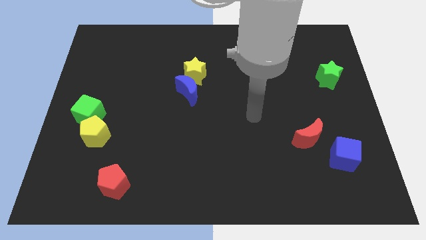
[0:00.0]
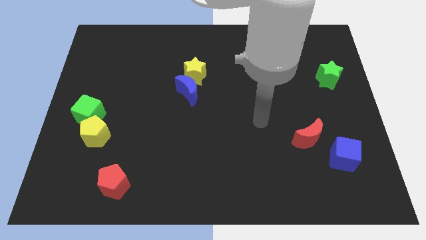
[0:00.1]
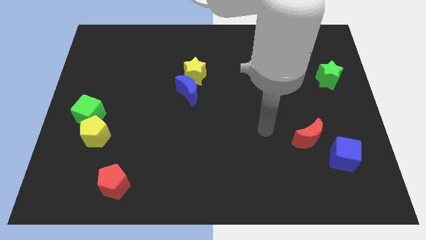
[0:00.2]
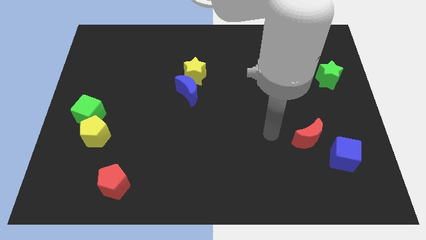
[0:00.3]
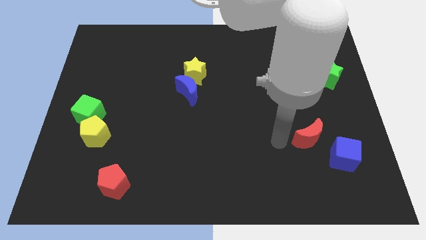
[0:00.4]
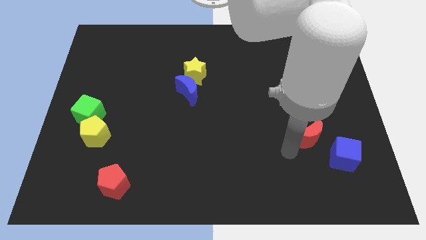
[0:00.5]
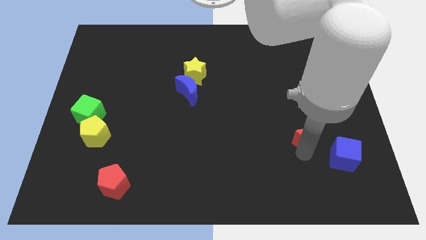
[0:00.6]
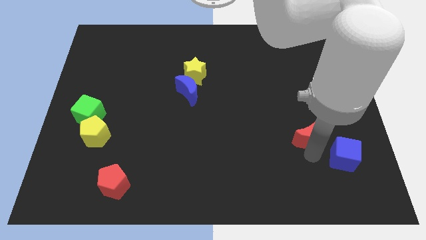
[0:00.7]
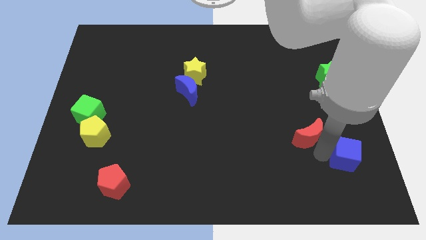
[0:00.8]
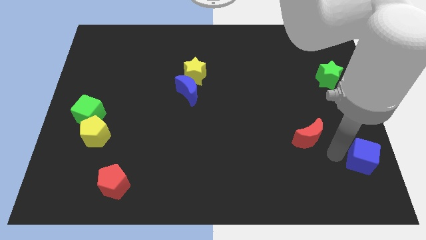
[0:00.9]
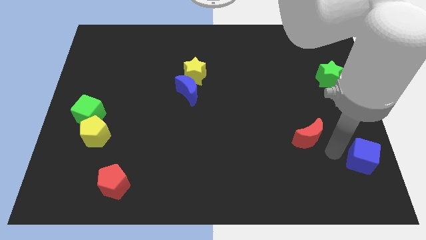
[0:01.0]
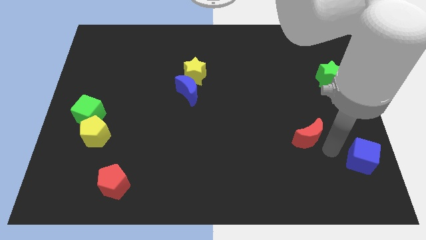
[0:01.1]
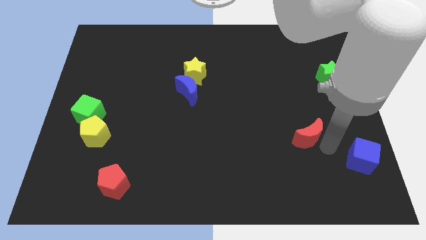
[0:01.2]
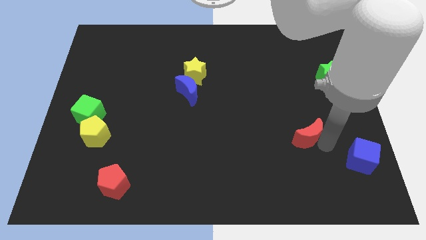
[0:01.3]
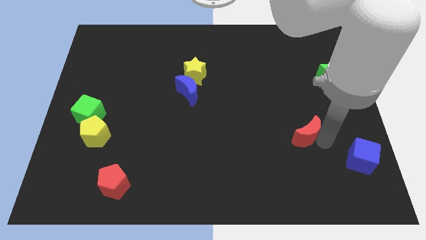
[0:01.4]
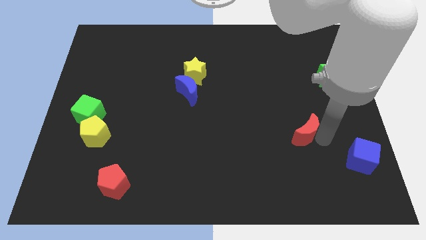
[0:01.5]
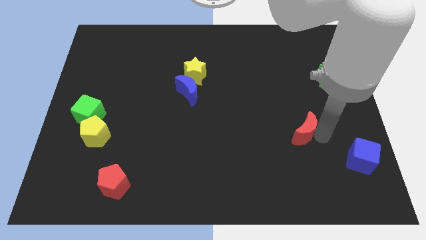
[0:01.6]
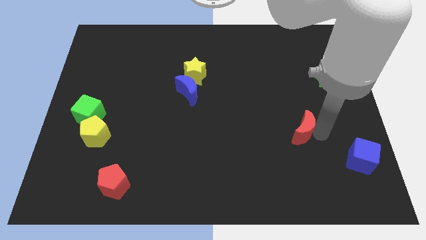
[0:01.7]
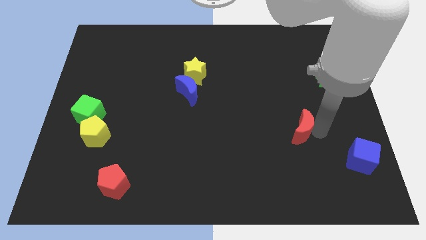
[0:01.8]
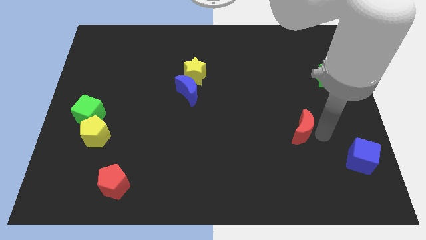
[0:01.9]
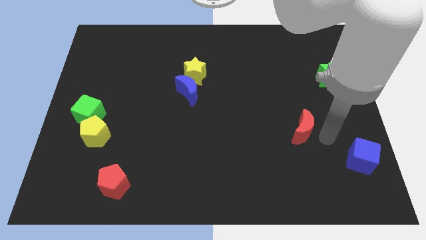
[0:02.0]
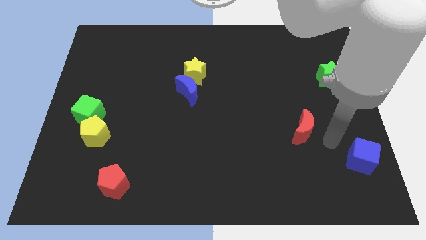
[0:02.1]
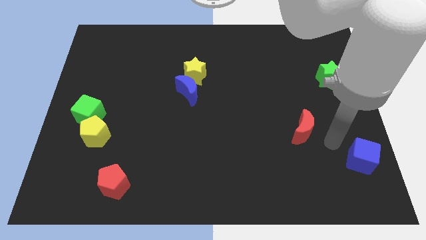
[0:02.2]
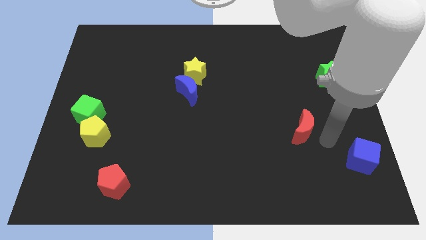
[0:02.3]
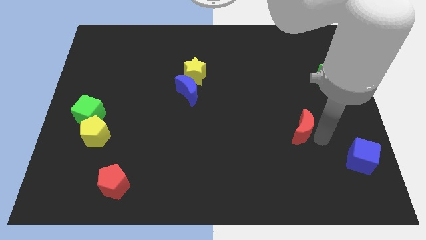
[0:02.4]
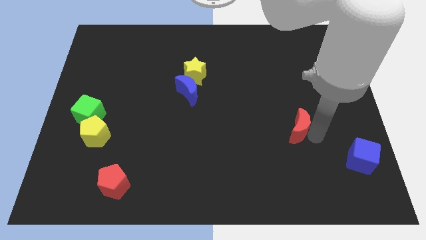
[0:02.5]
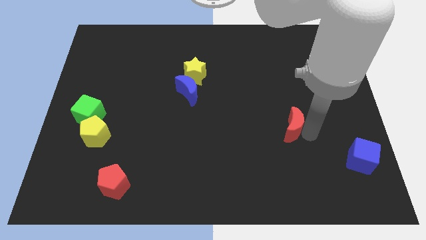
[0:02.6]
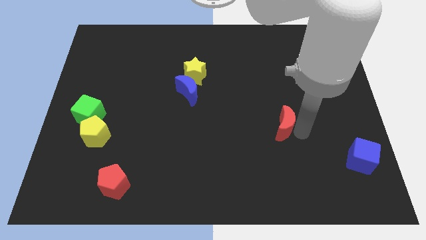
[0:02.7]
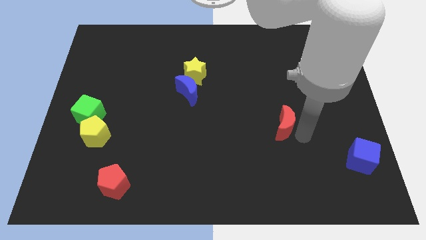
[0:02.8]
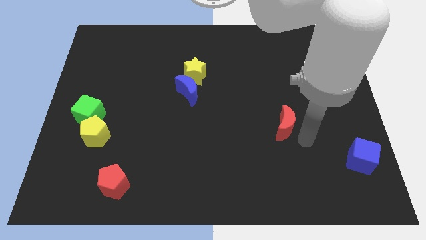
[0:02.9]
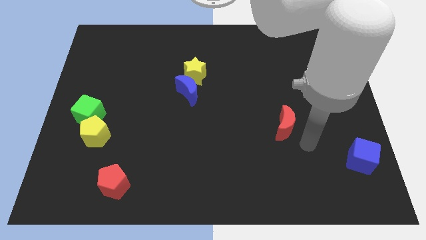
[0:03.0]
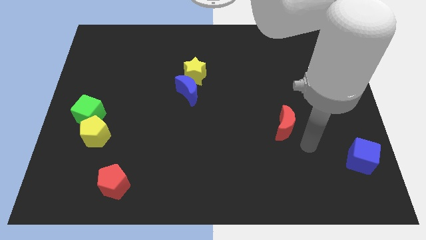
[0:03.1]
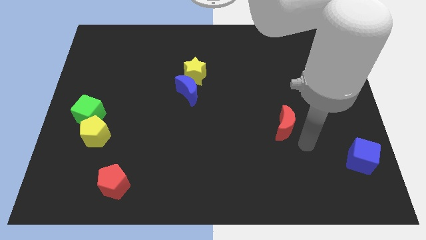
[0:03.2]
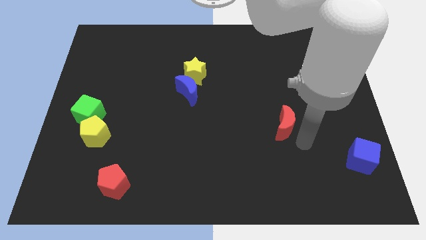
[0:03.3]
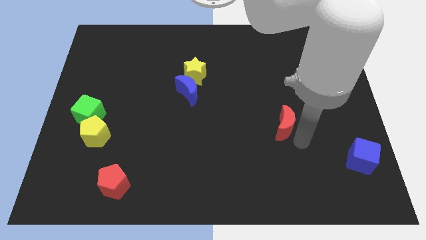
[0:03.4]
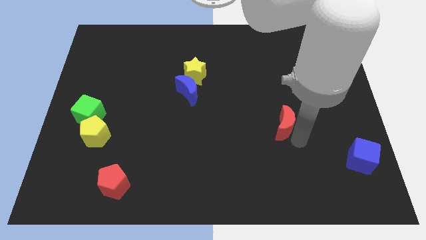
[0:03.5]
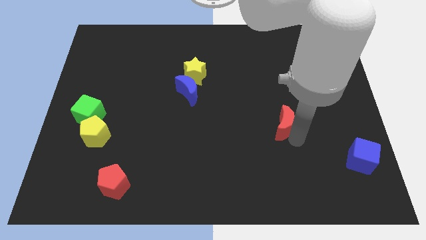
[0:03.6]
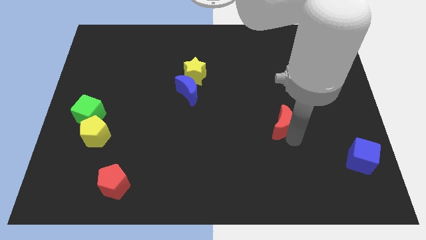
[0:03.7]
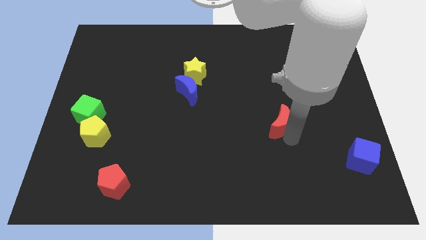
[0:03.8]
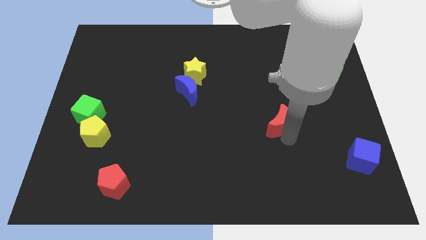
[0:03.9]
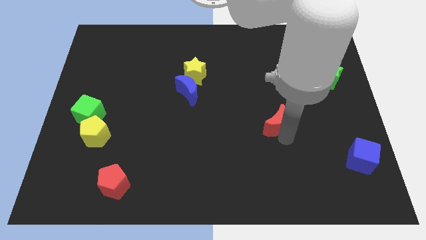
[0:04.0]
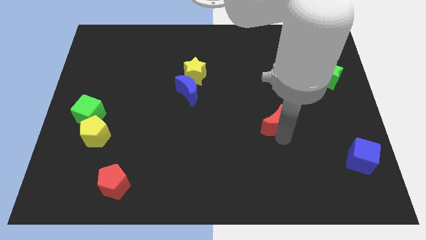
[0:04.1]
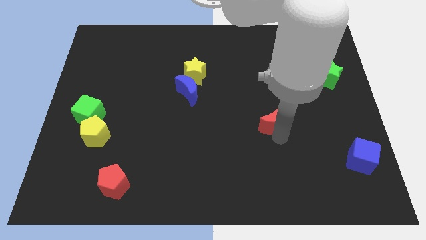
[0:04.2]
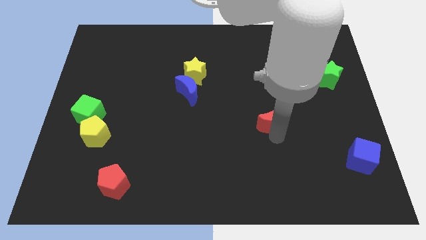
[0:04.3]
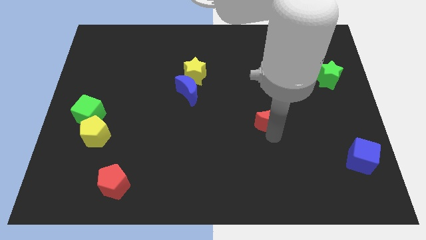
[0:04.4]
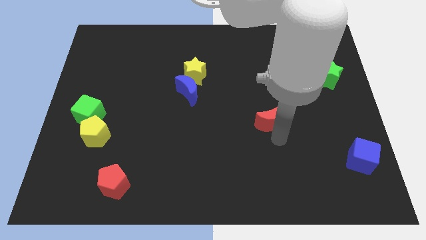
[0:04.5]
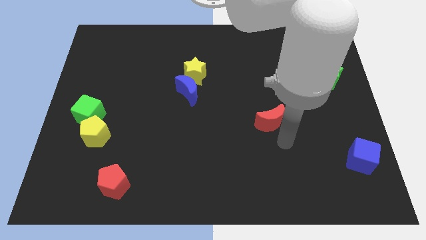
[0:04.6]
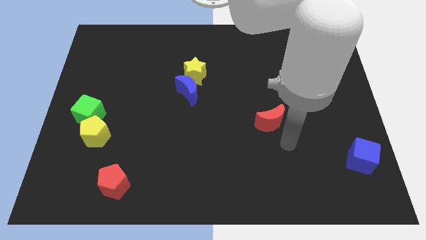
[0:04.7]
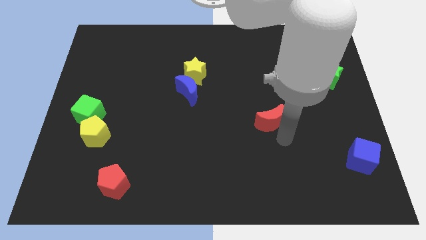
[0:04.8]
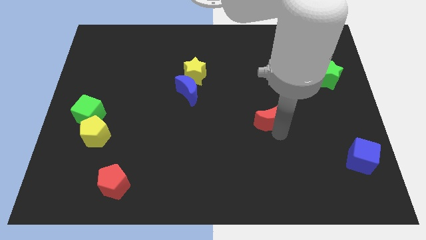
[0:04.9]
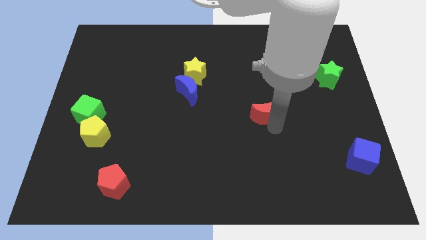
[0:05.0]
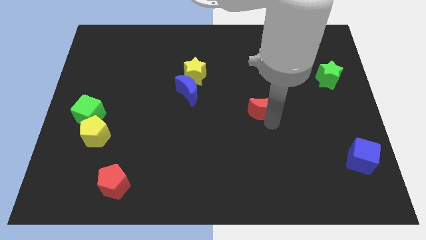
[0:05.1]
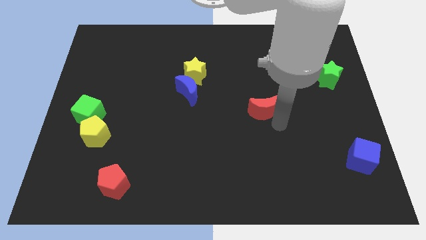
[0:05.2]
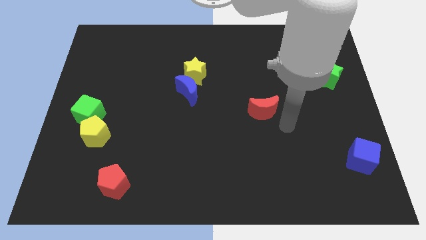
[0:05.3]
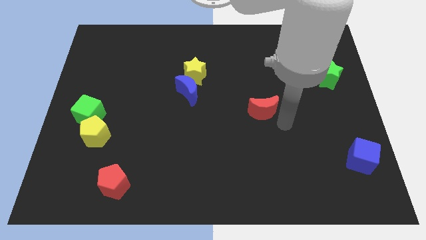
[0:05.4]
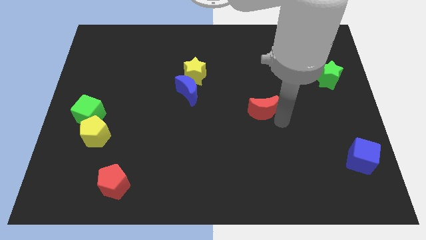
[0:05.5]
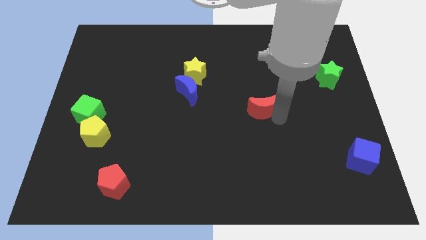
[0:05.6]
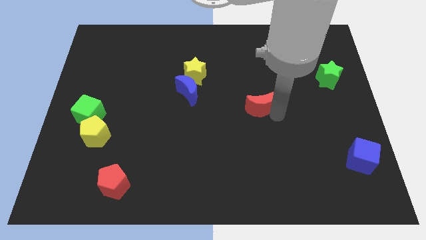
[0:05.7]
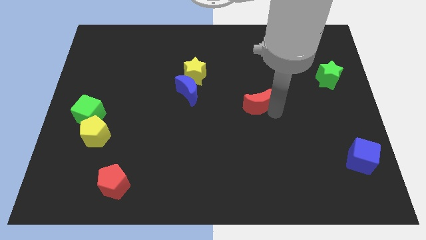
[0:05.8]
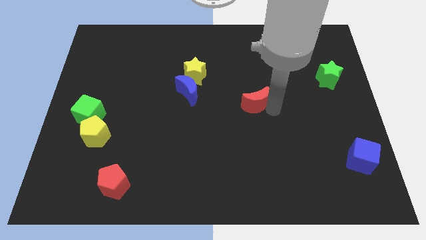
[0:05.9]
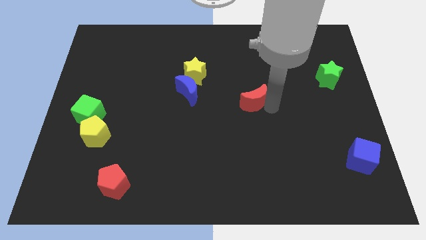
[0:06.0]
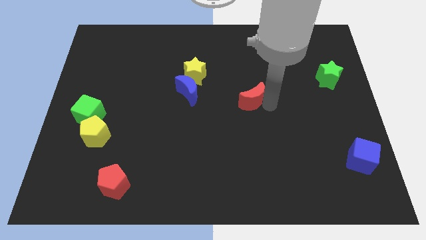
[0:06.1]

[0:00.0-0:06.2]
move the red moon to the right side of the blue moon

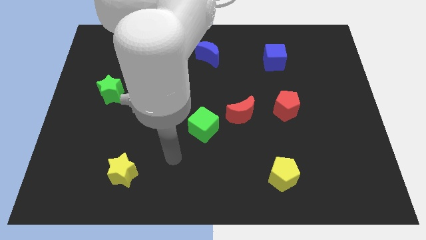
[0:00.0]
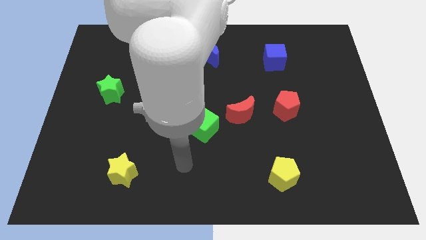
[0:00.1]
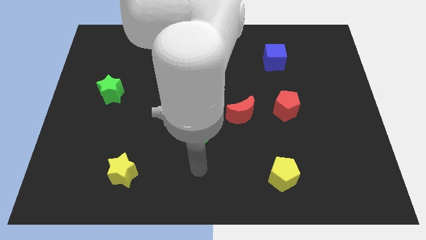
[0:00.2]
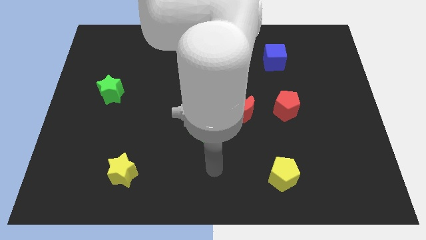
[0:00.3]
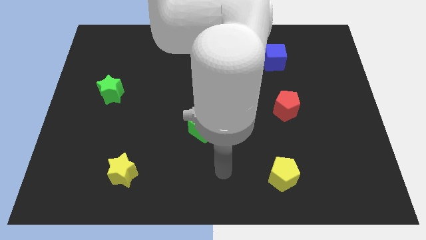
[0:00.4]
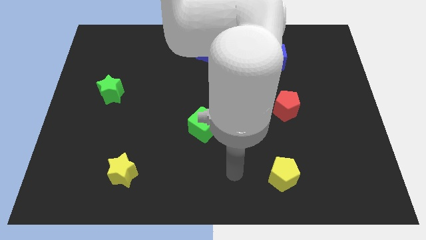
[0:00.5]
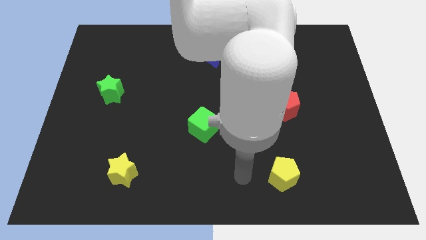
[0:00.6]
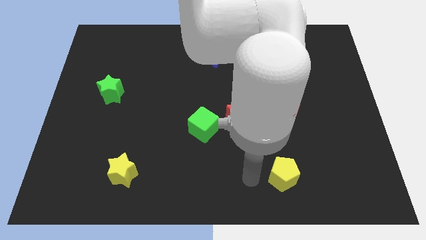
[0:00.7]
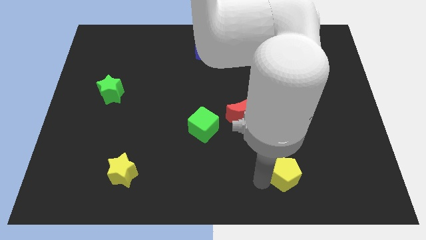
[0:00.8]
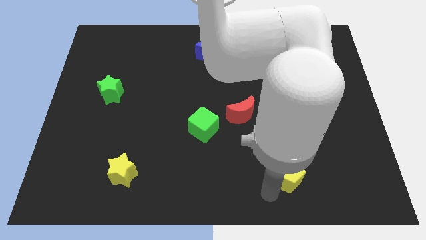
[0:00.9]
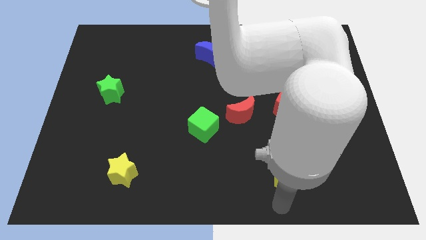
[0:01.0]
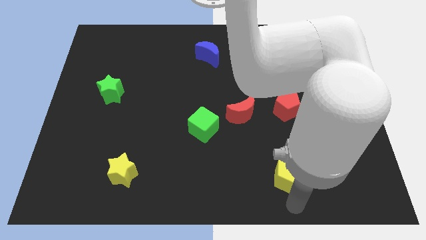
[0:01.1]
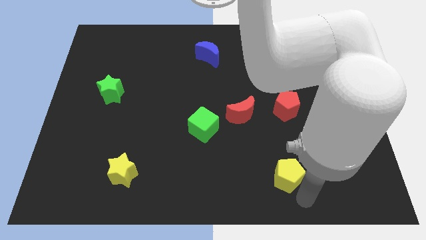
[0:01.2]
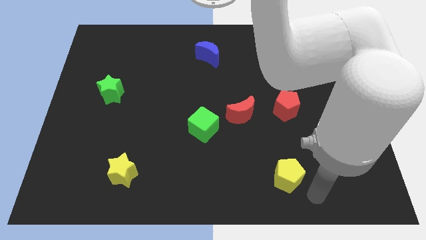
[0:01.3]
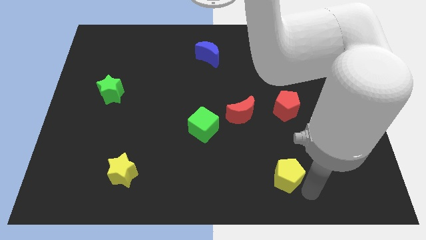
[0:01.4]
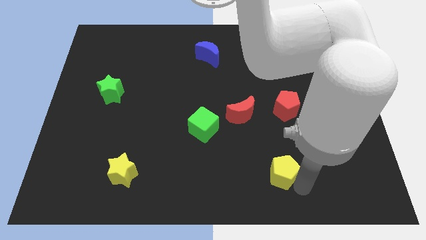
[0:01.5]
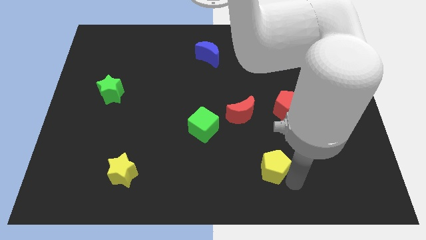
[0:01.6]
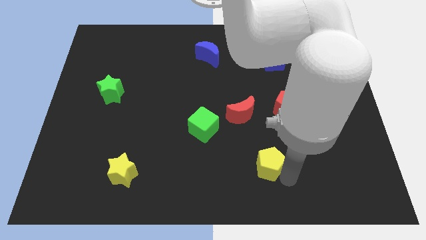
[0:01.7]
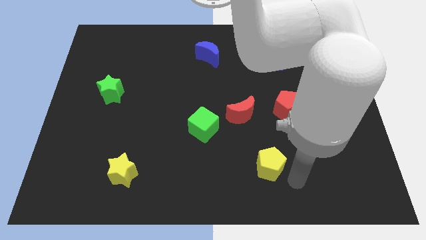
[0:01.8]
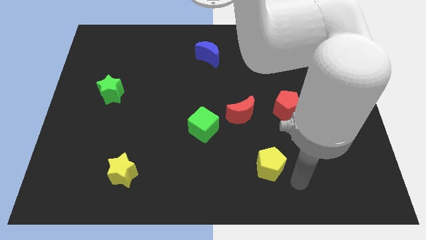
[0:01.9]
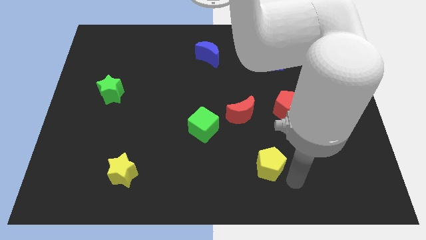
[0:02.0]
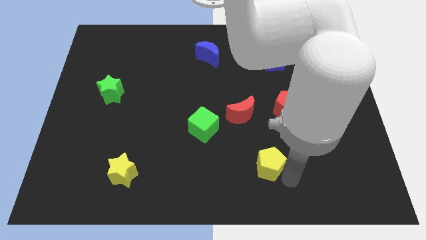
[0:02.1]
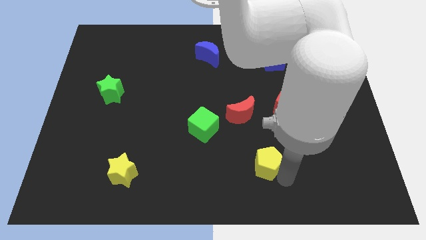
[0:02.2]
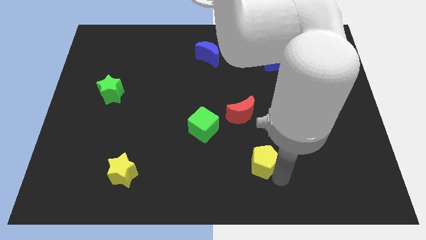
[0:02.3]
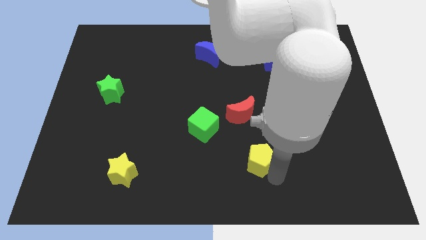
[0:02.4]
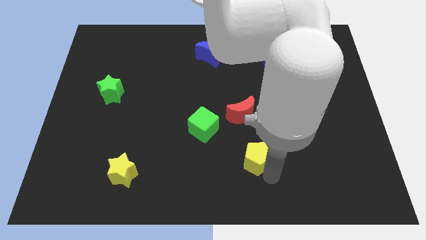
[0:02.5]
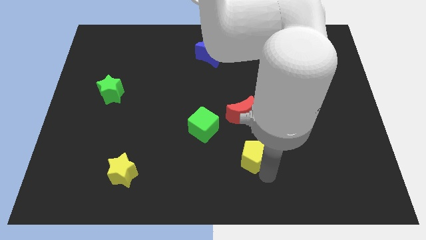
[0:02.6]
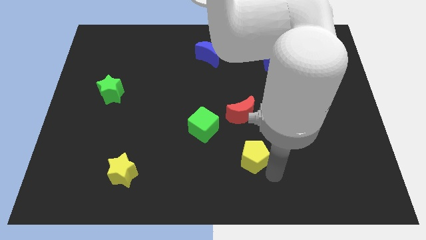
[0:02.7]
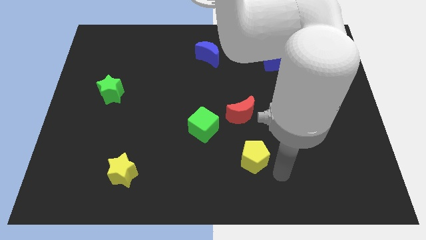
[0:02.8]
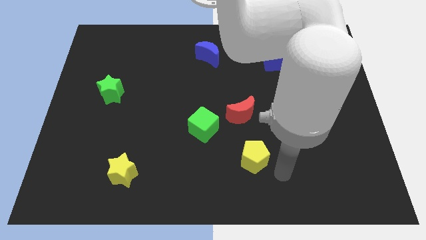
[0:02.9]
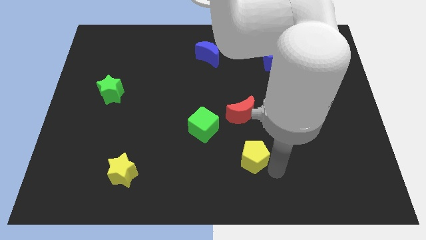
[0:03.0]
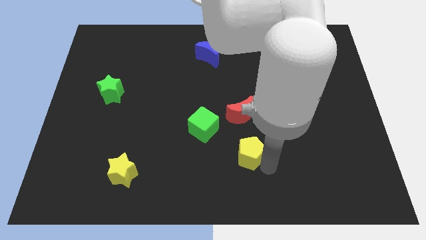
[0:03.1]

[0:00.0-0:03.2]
slide the yellow pentagon diagonally down and to the right of the green cube
